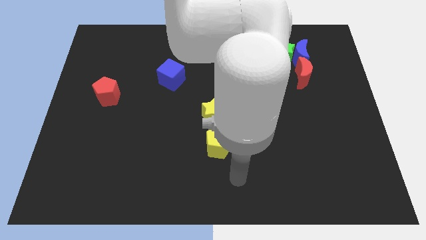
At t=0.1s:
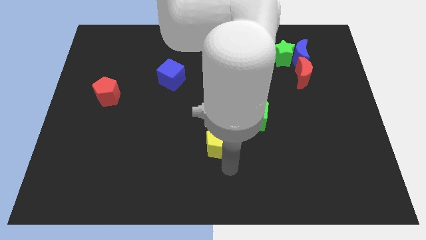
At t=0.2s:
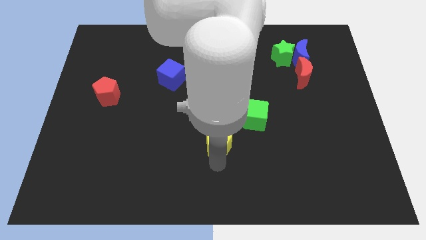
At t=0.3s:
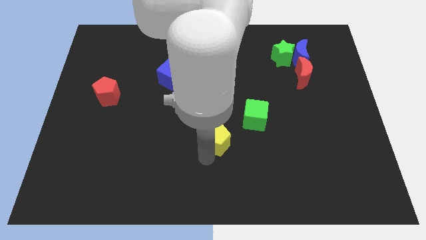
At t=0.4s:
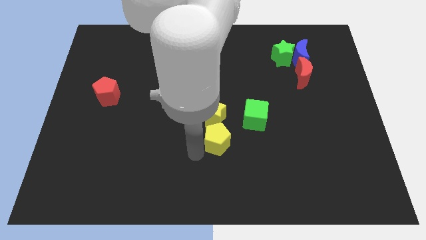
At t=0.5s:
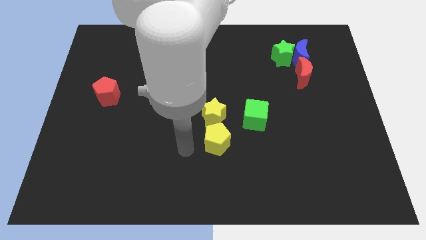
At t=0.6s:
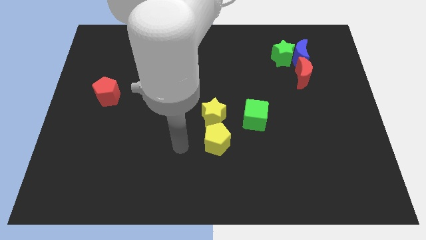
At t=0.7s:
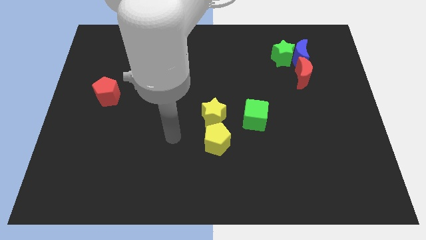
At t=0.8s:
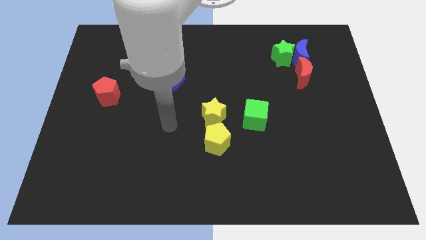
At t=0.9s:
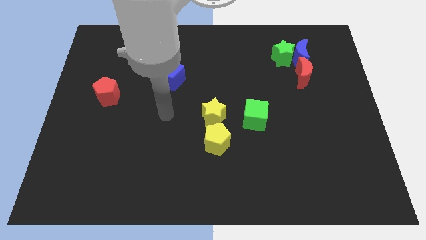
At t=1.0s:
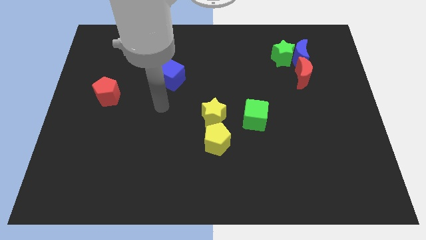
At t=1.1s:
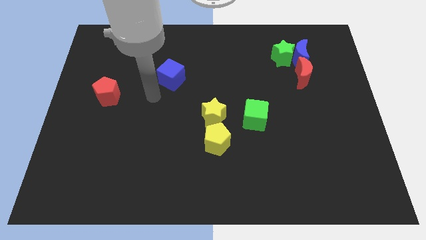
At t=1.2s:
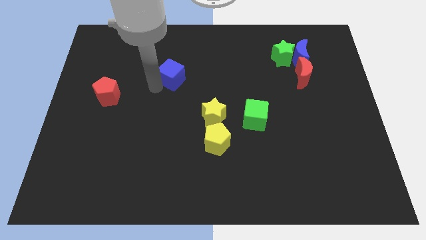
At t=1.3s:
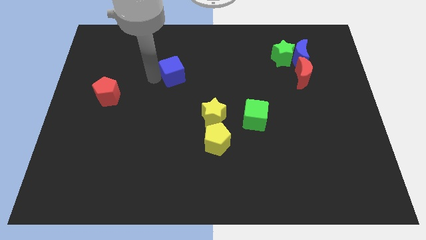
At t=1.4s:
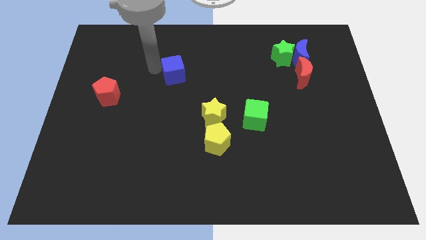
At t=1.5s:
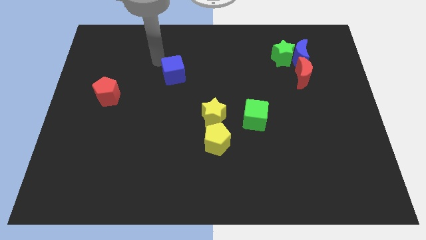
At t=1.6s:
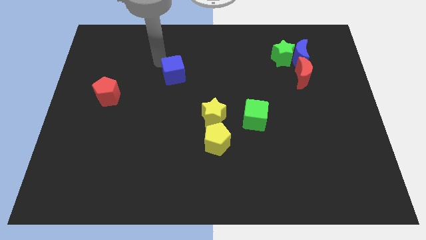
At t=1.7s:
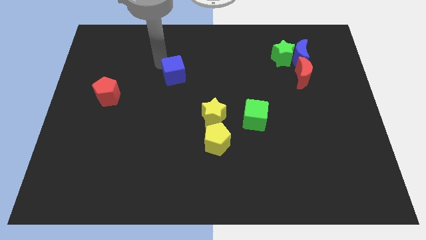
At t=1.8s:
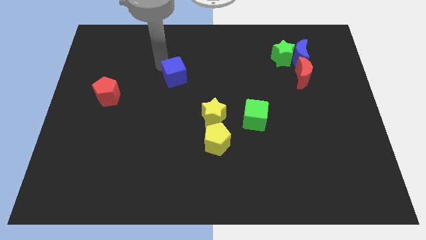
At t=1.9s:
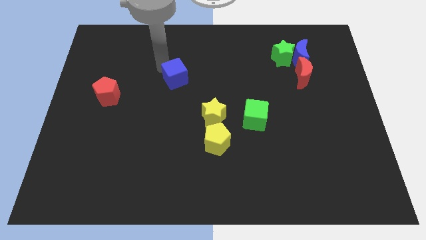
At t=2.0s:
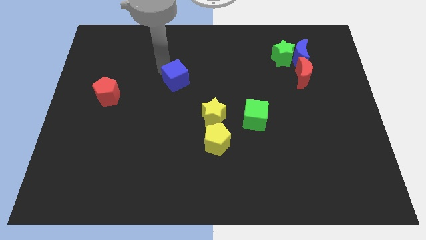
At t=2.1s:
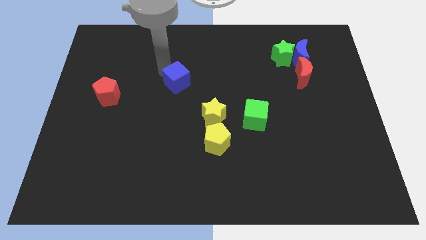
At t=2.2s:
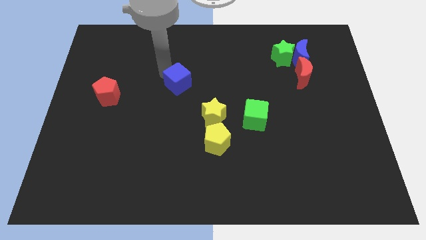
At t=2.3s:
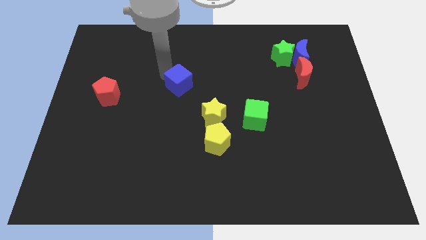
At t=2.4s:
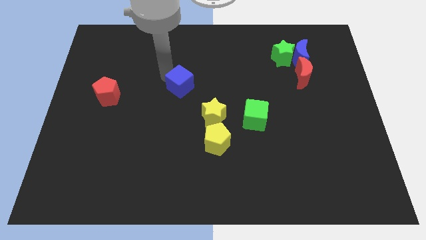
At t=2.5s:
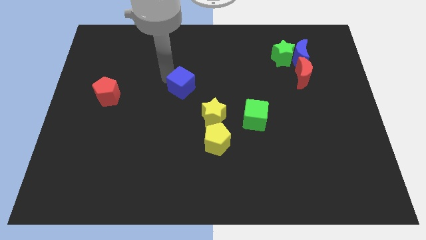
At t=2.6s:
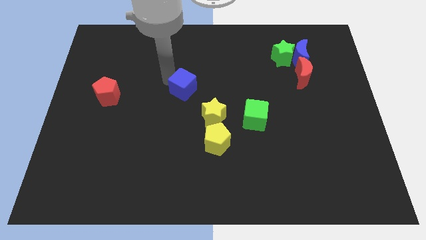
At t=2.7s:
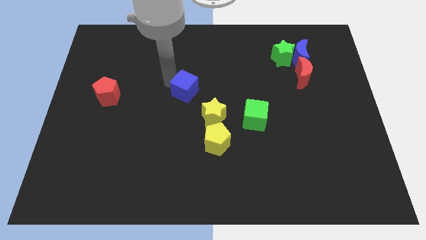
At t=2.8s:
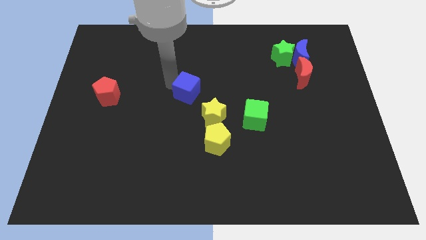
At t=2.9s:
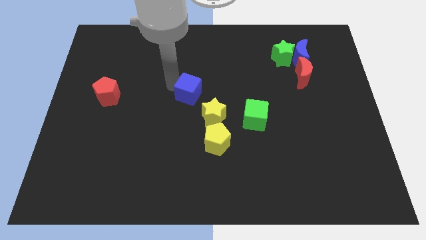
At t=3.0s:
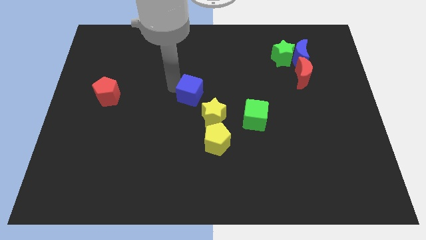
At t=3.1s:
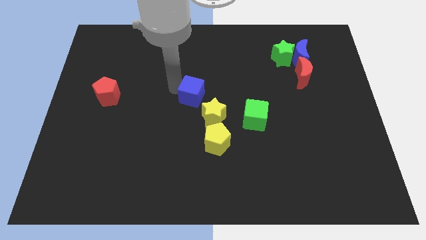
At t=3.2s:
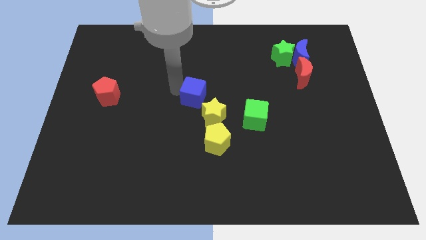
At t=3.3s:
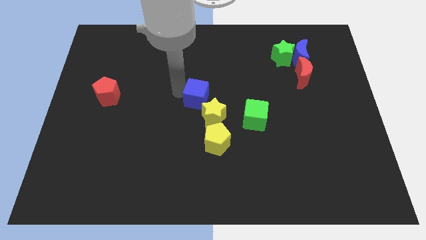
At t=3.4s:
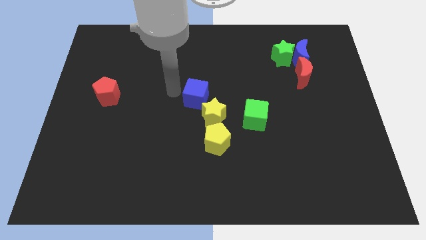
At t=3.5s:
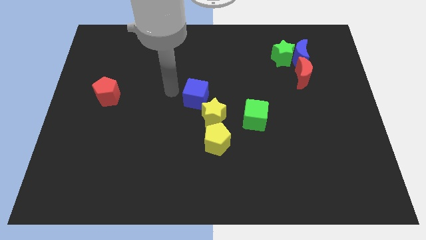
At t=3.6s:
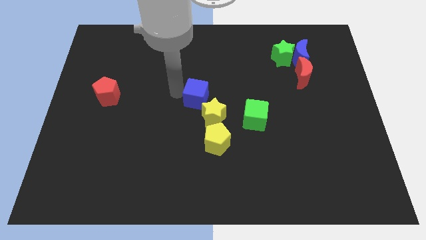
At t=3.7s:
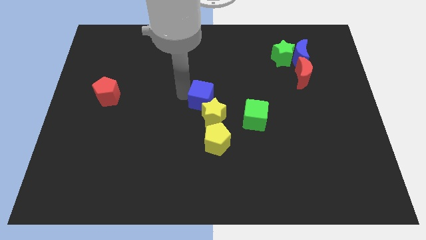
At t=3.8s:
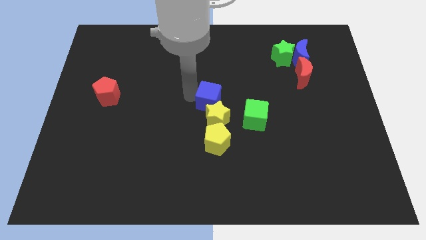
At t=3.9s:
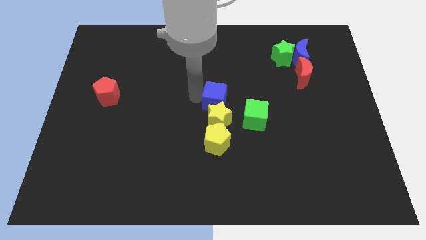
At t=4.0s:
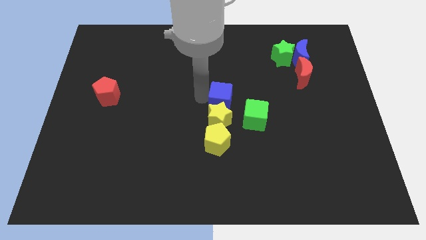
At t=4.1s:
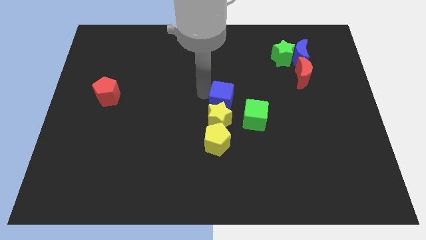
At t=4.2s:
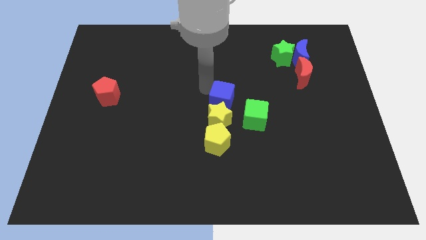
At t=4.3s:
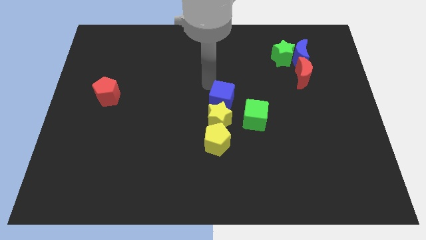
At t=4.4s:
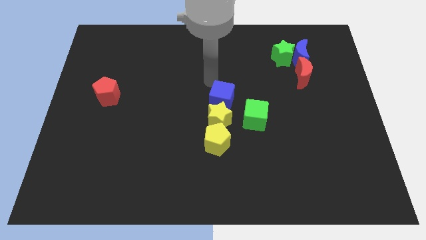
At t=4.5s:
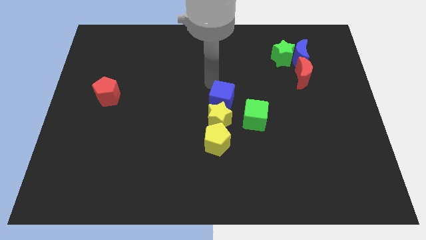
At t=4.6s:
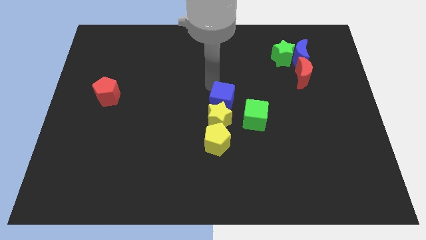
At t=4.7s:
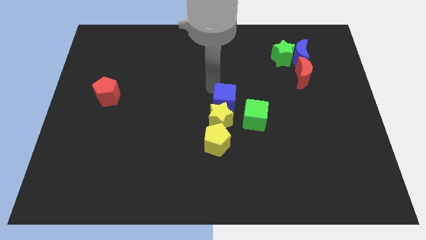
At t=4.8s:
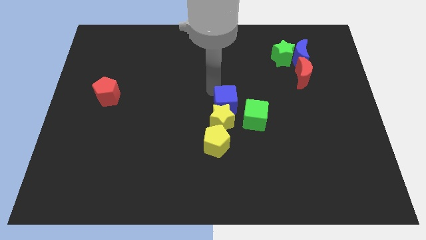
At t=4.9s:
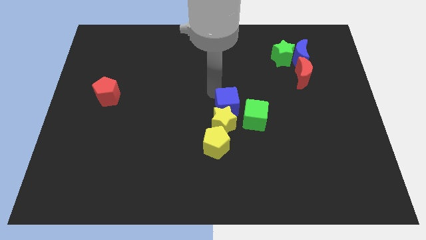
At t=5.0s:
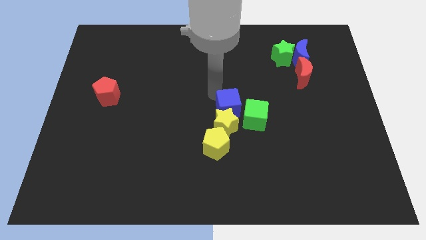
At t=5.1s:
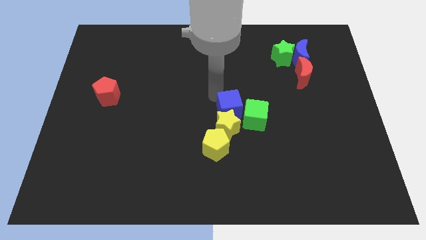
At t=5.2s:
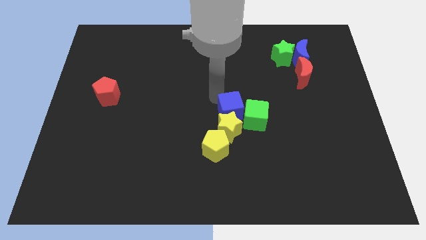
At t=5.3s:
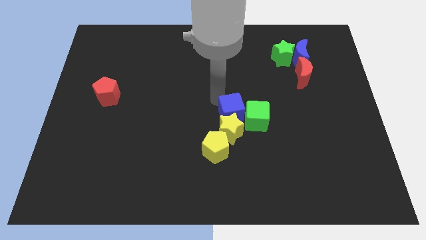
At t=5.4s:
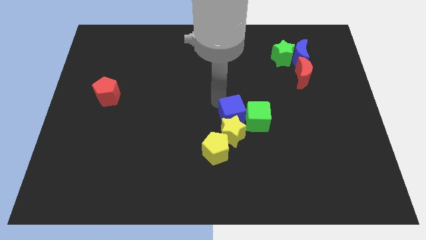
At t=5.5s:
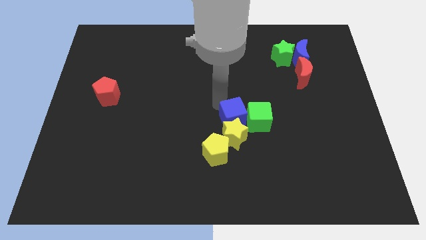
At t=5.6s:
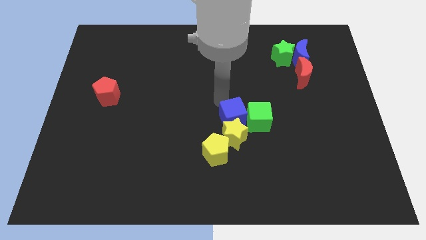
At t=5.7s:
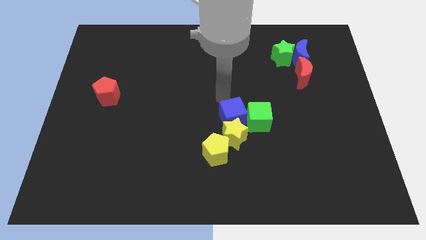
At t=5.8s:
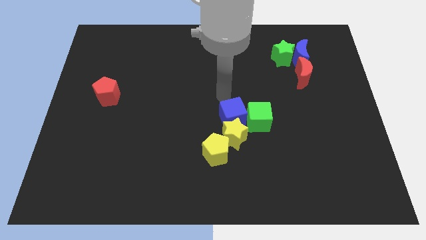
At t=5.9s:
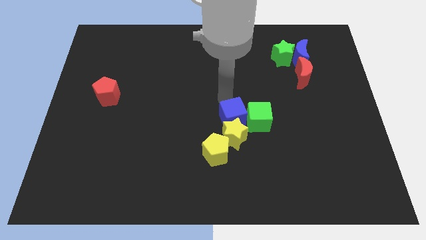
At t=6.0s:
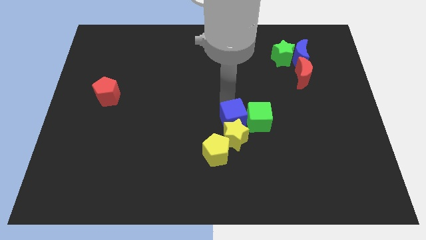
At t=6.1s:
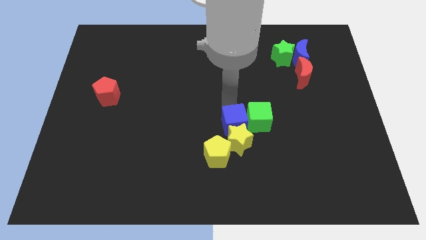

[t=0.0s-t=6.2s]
push the blue cube downwards and right diagonally

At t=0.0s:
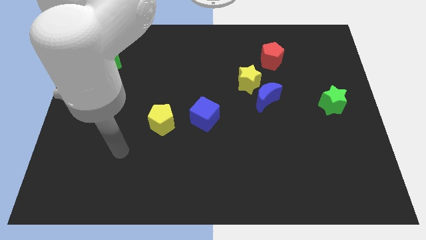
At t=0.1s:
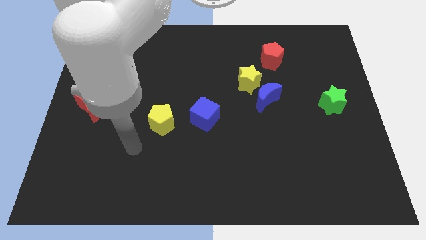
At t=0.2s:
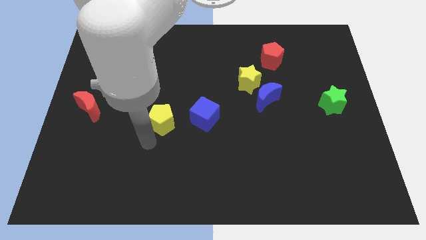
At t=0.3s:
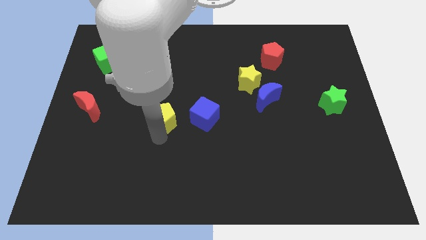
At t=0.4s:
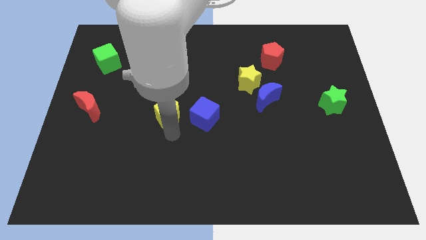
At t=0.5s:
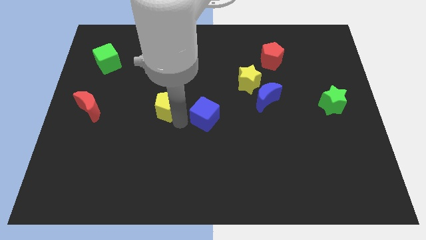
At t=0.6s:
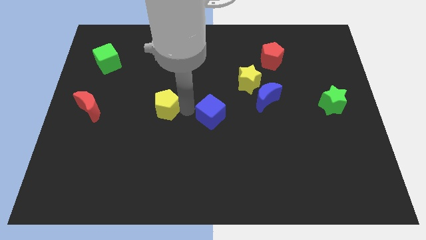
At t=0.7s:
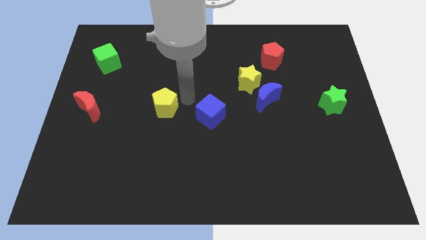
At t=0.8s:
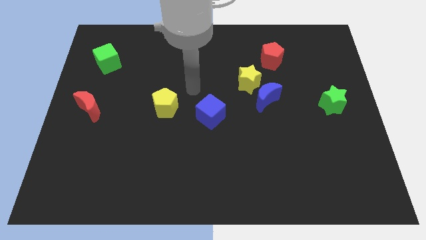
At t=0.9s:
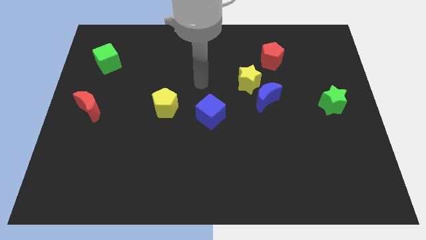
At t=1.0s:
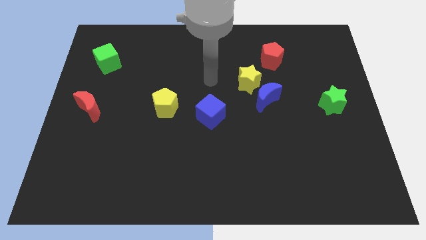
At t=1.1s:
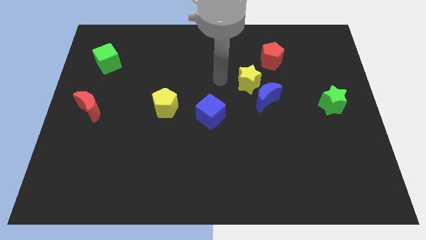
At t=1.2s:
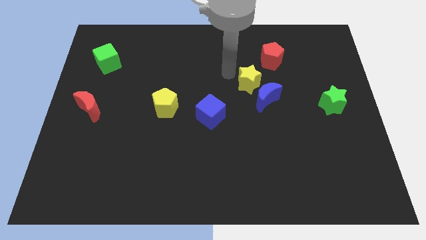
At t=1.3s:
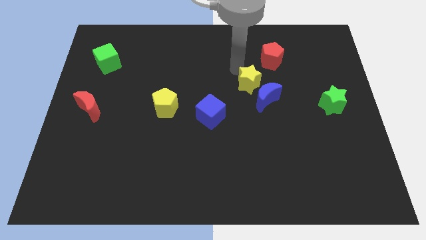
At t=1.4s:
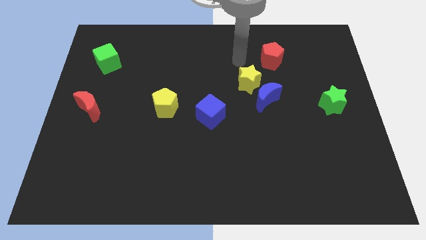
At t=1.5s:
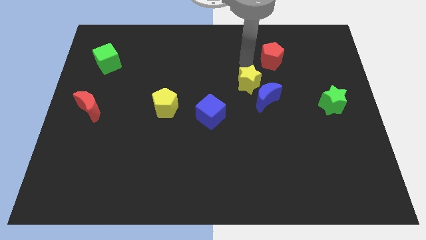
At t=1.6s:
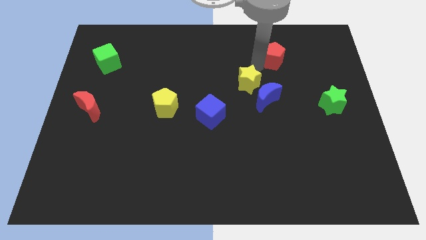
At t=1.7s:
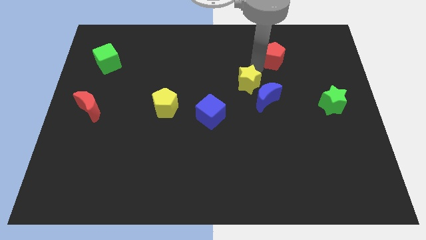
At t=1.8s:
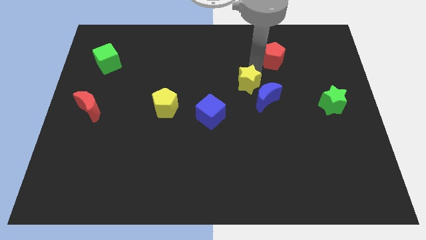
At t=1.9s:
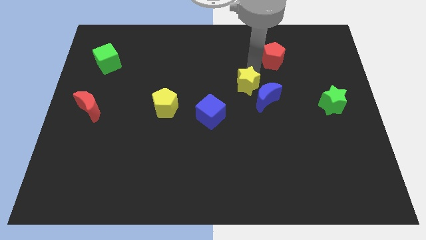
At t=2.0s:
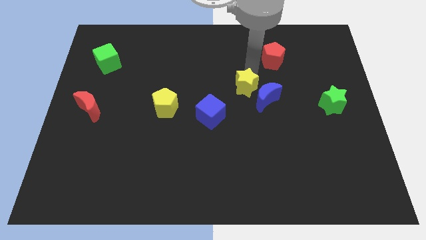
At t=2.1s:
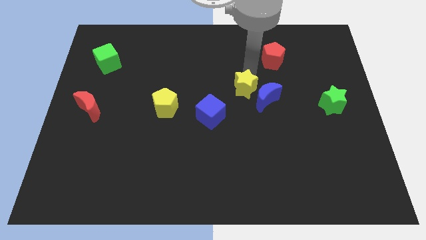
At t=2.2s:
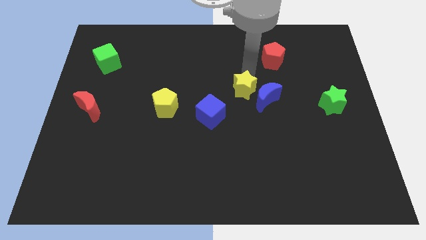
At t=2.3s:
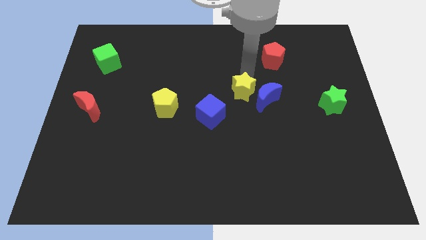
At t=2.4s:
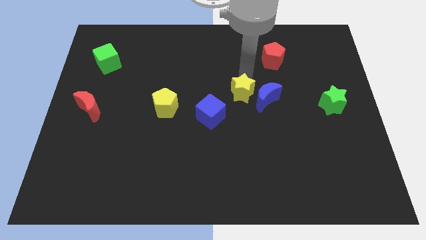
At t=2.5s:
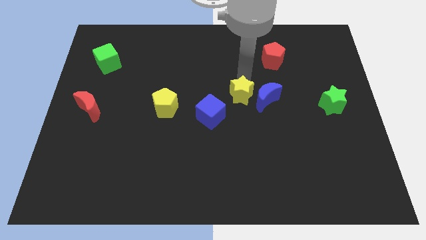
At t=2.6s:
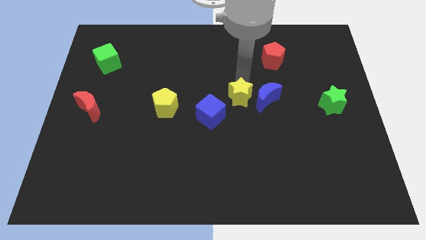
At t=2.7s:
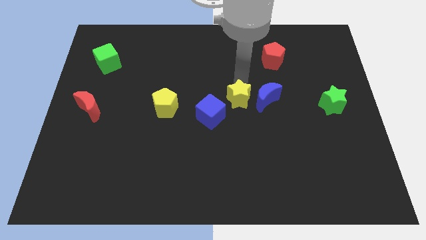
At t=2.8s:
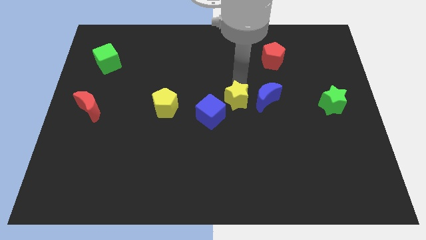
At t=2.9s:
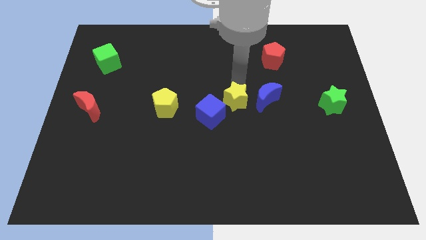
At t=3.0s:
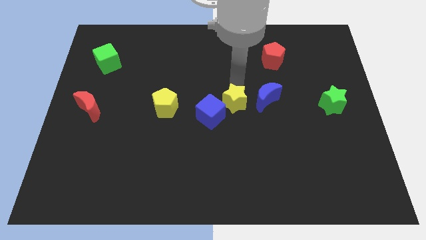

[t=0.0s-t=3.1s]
slightly push the yellow star down and to the left
